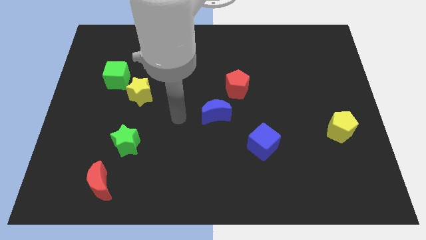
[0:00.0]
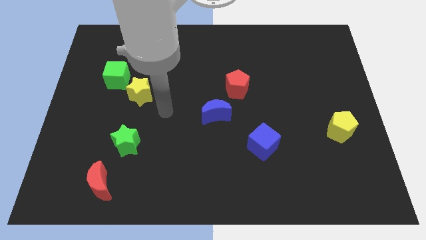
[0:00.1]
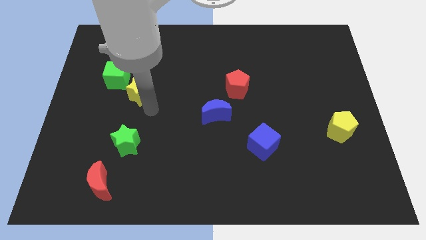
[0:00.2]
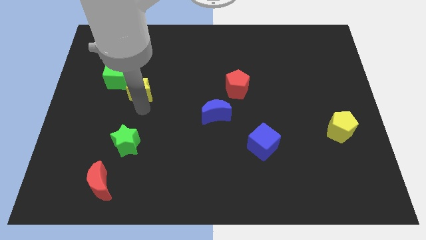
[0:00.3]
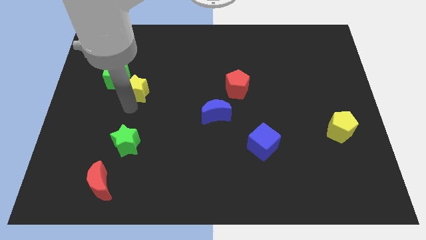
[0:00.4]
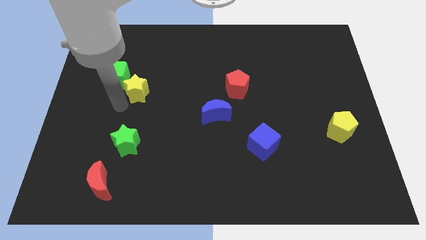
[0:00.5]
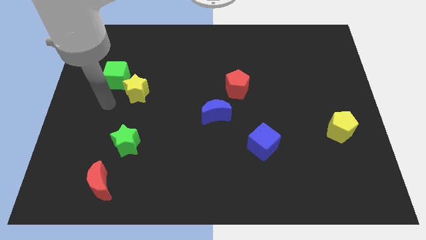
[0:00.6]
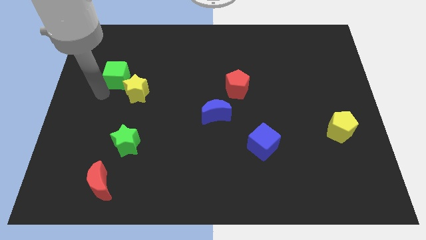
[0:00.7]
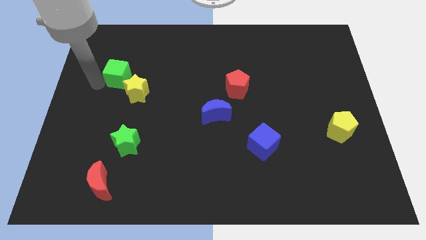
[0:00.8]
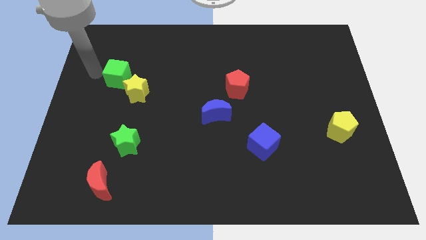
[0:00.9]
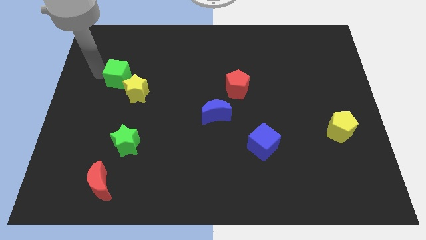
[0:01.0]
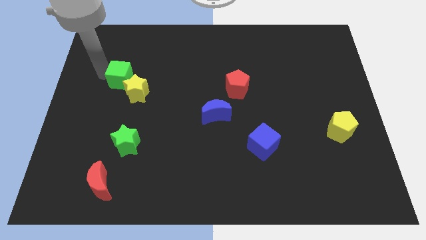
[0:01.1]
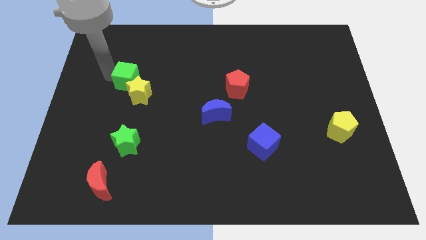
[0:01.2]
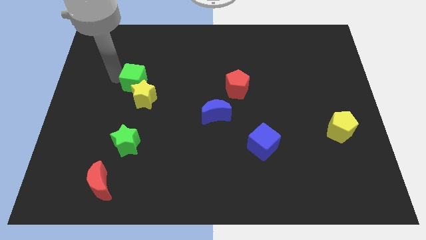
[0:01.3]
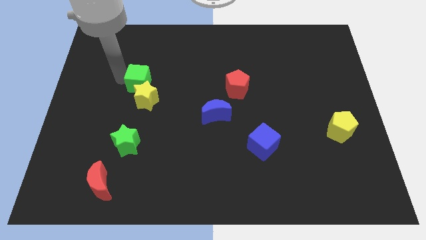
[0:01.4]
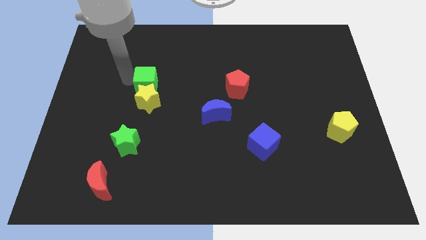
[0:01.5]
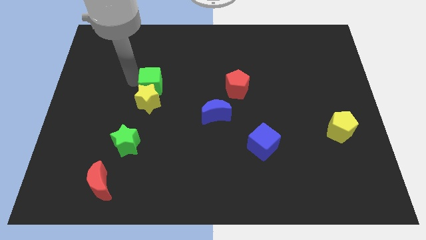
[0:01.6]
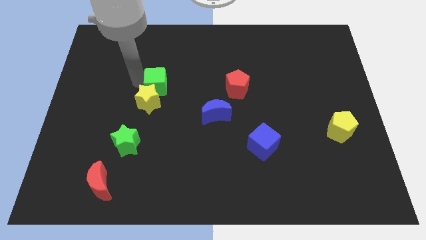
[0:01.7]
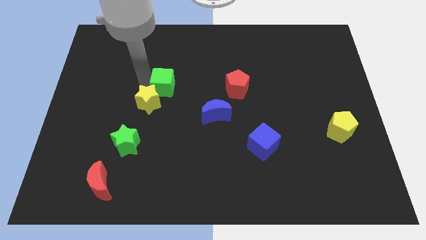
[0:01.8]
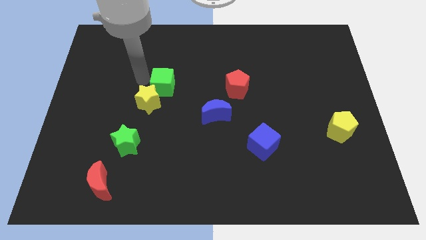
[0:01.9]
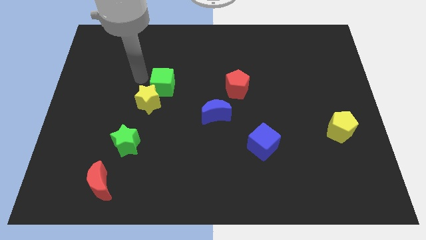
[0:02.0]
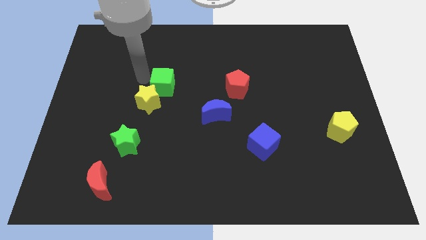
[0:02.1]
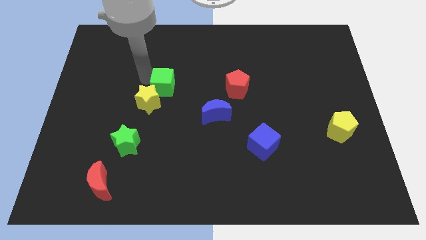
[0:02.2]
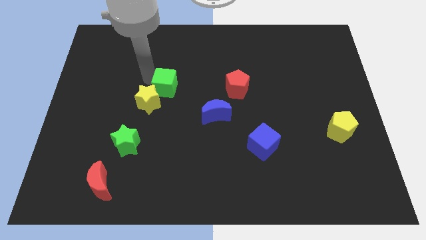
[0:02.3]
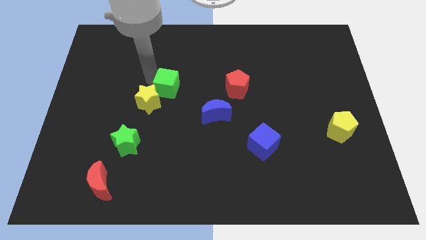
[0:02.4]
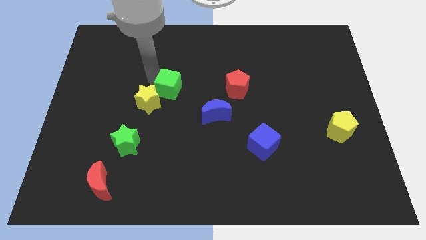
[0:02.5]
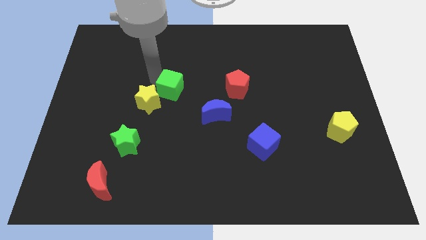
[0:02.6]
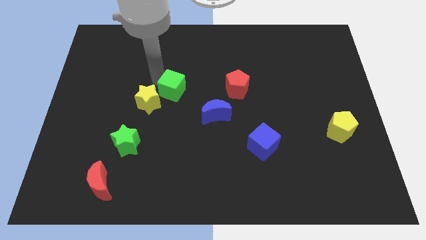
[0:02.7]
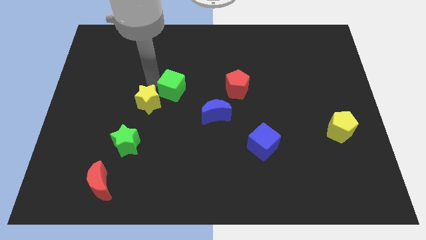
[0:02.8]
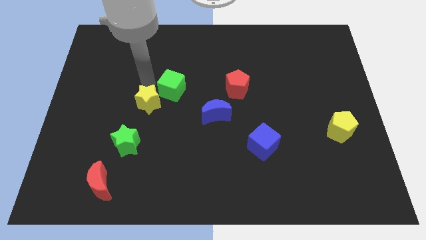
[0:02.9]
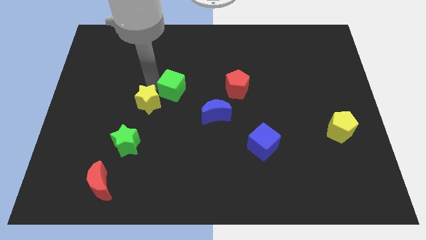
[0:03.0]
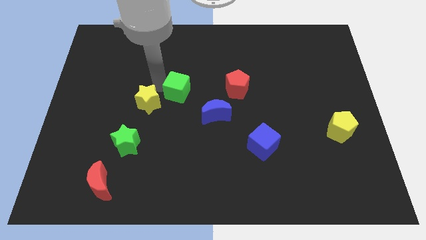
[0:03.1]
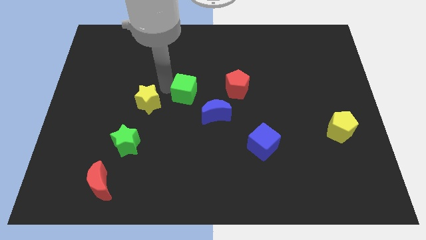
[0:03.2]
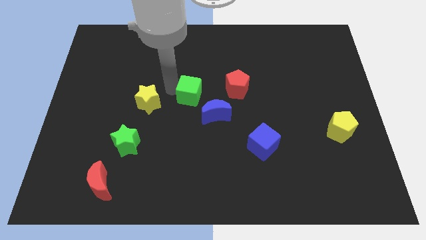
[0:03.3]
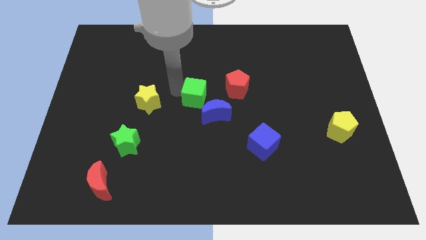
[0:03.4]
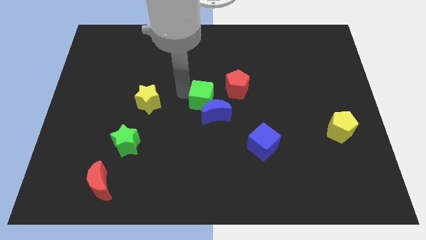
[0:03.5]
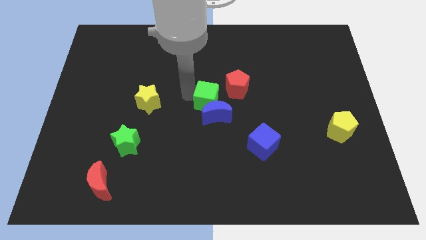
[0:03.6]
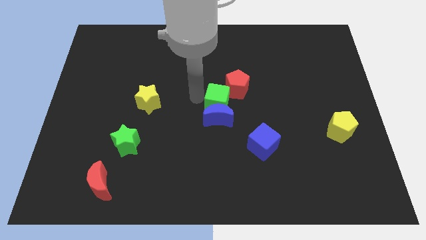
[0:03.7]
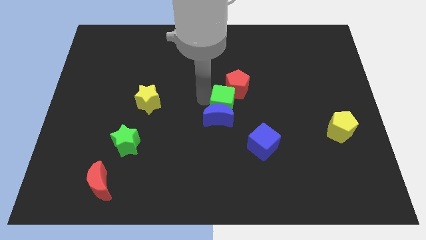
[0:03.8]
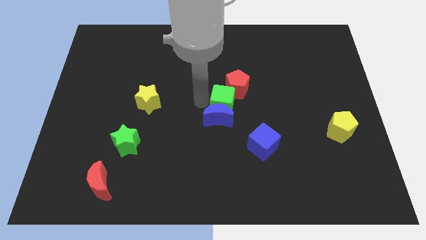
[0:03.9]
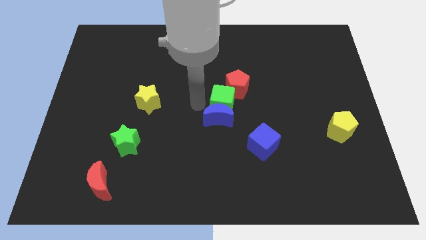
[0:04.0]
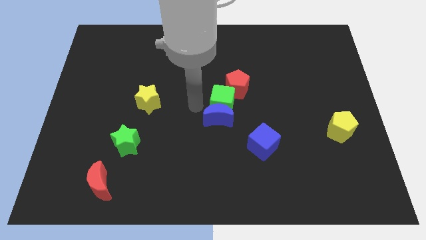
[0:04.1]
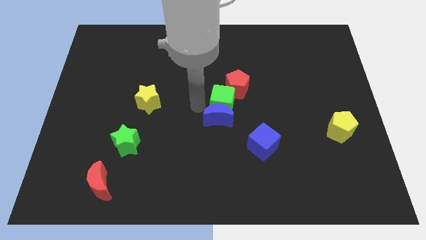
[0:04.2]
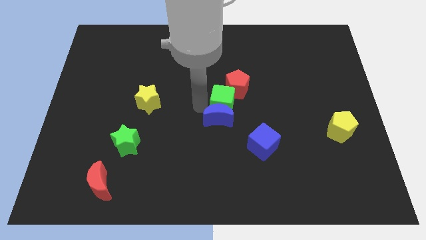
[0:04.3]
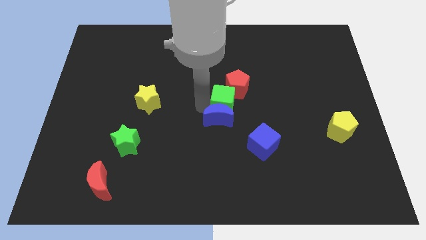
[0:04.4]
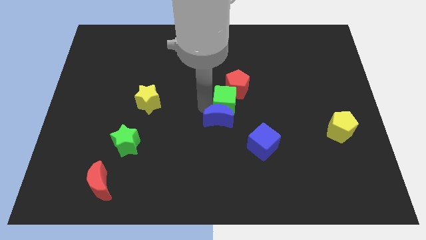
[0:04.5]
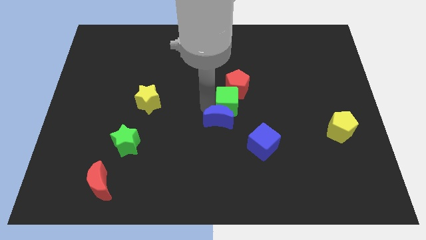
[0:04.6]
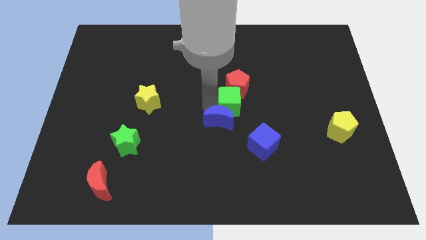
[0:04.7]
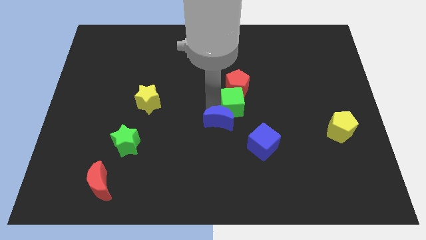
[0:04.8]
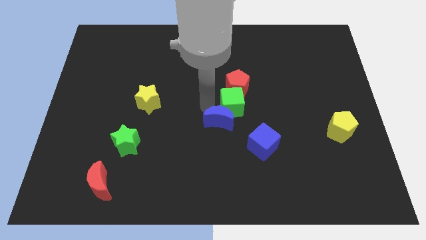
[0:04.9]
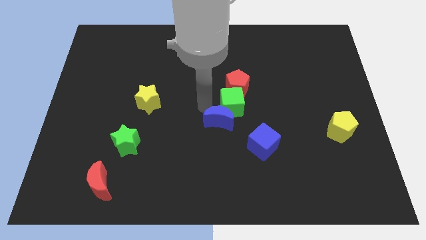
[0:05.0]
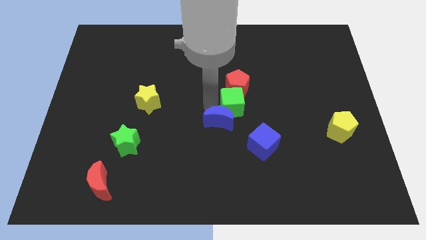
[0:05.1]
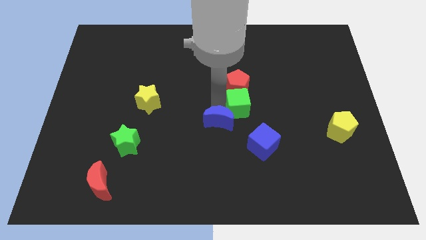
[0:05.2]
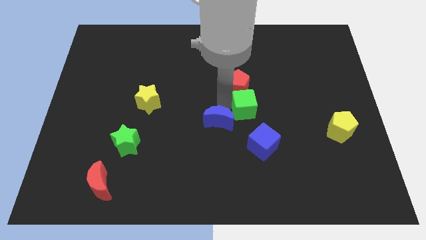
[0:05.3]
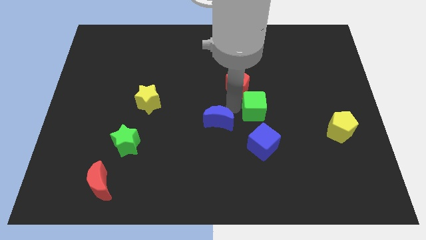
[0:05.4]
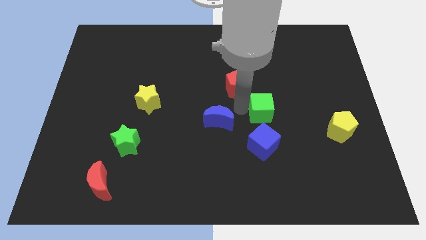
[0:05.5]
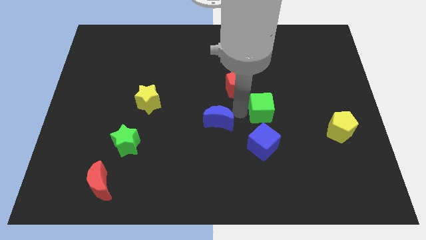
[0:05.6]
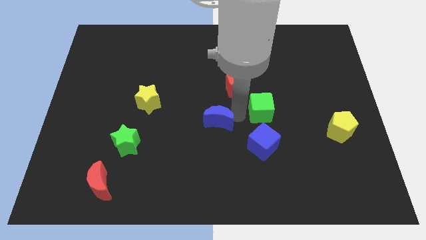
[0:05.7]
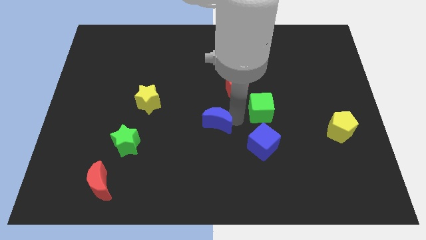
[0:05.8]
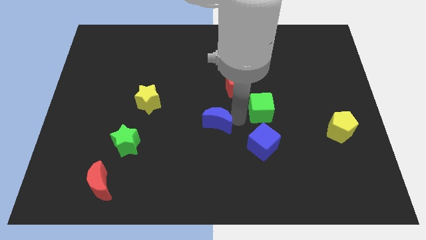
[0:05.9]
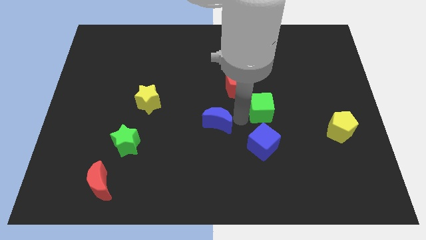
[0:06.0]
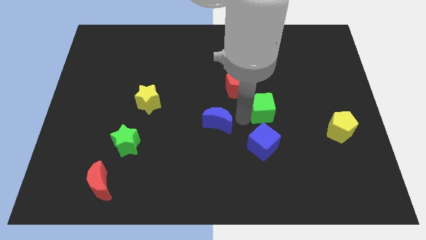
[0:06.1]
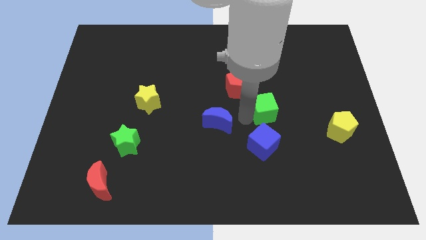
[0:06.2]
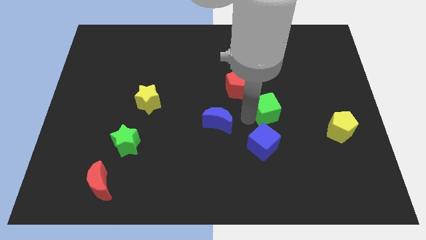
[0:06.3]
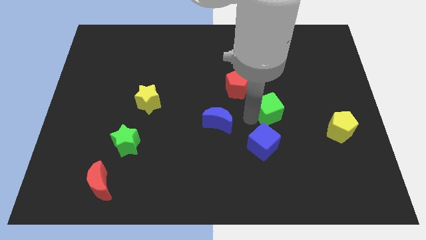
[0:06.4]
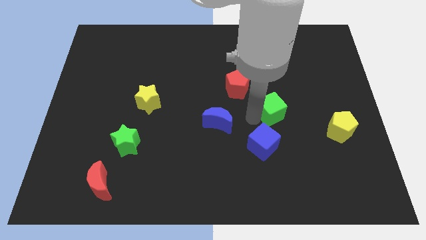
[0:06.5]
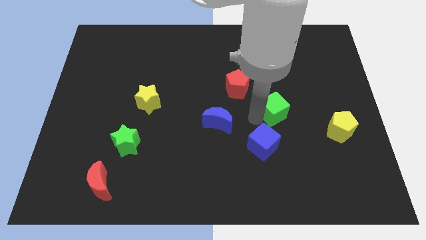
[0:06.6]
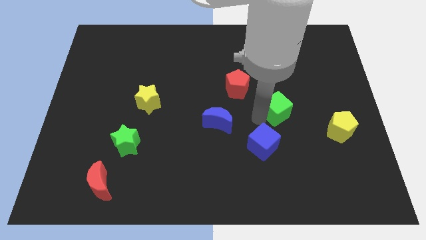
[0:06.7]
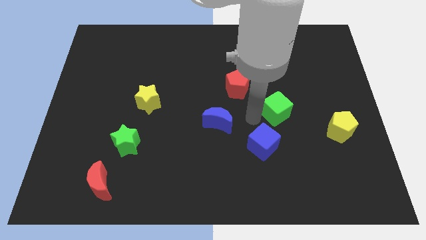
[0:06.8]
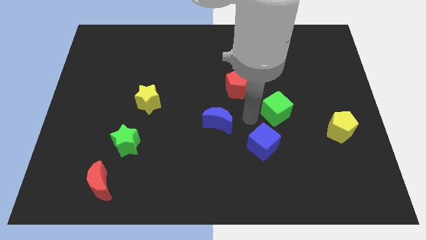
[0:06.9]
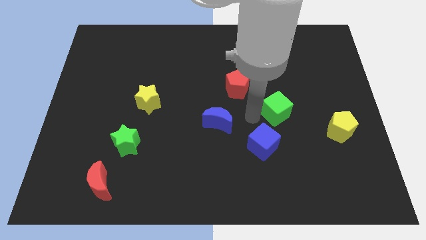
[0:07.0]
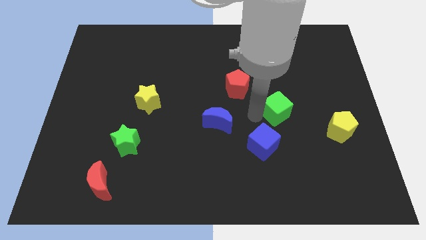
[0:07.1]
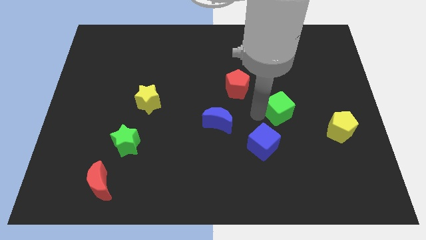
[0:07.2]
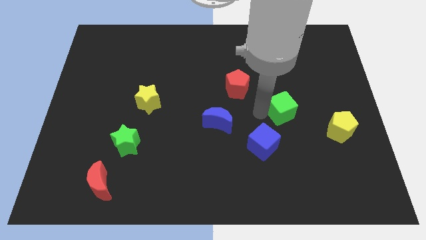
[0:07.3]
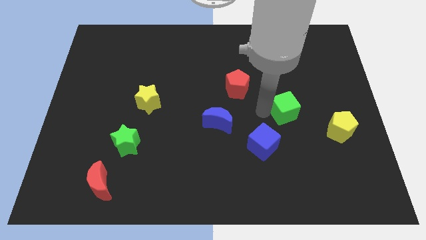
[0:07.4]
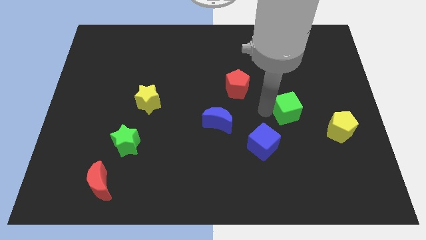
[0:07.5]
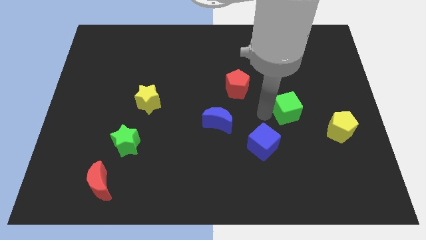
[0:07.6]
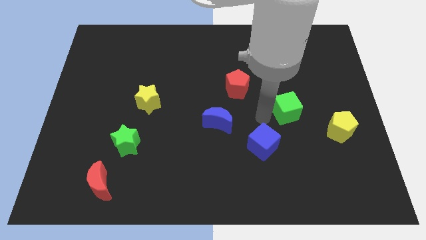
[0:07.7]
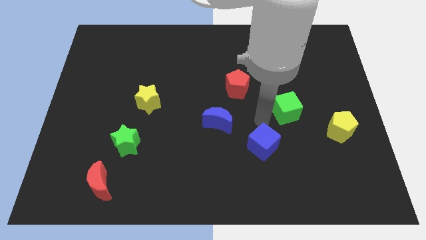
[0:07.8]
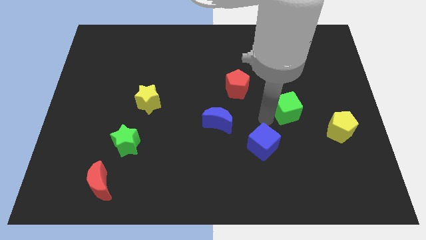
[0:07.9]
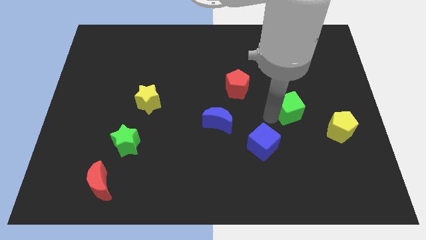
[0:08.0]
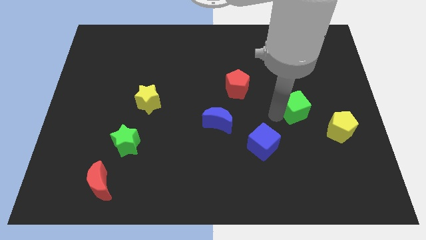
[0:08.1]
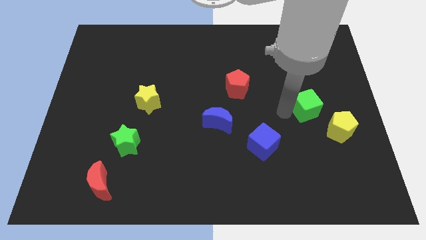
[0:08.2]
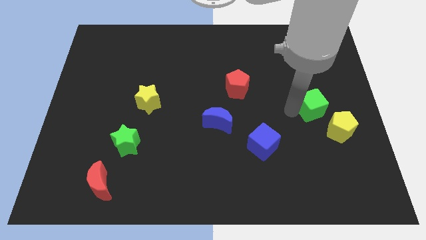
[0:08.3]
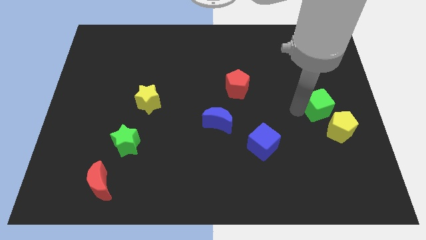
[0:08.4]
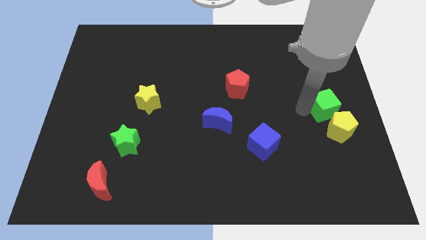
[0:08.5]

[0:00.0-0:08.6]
move the green cube to the center right
